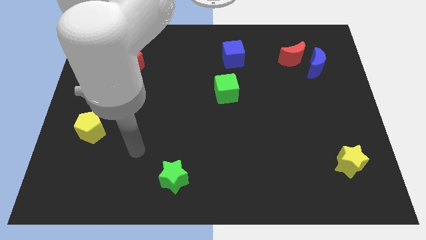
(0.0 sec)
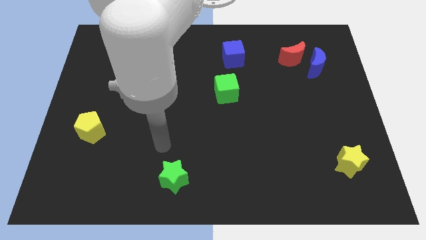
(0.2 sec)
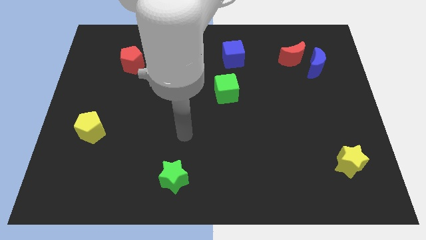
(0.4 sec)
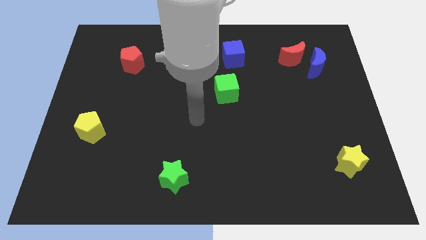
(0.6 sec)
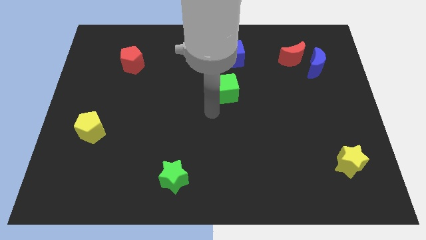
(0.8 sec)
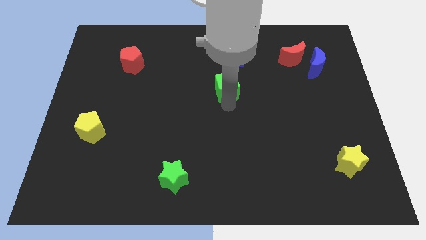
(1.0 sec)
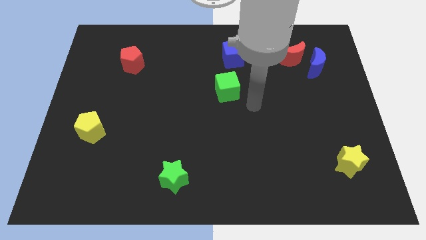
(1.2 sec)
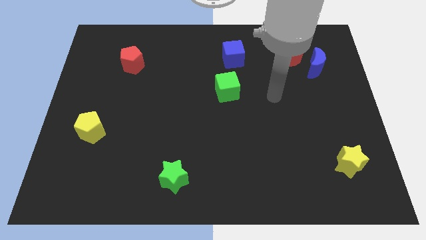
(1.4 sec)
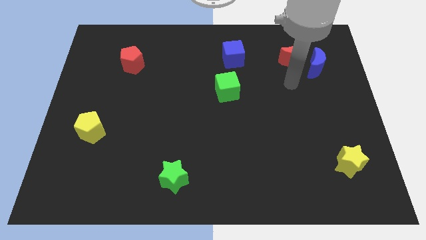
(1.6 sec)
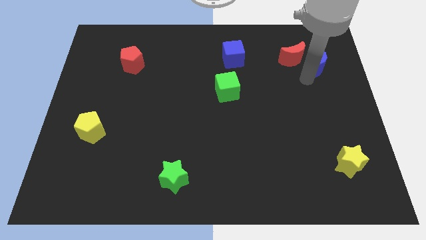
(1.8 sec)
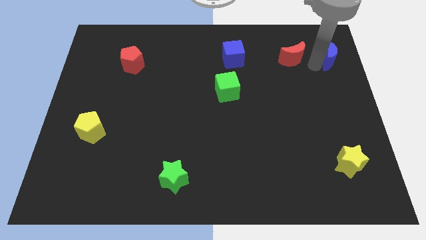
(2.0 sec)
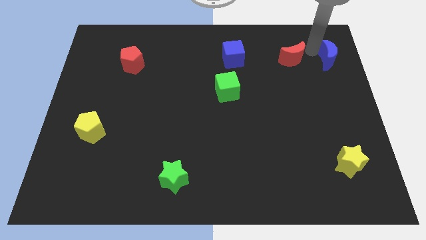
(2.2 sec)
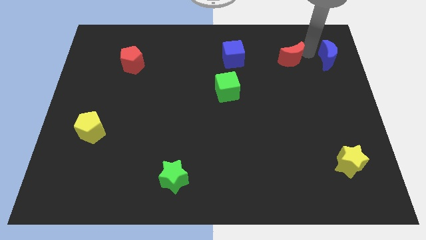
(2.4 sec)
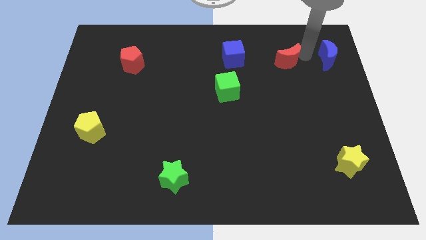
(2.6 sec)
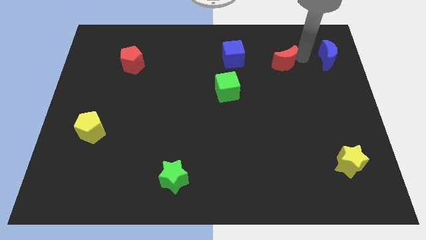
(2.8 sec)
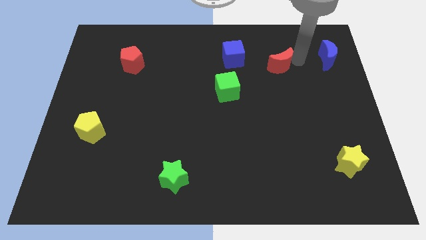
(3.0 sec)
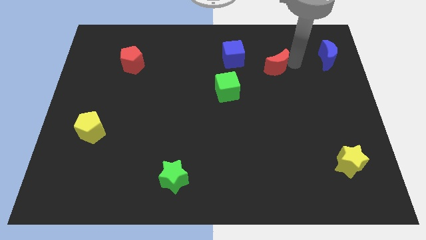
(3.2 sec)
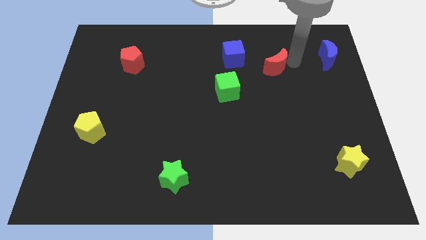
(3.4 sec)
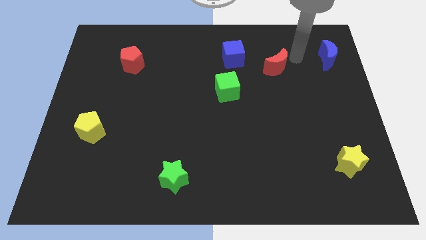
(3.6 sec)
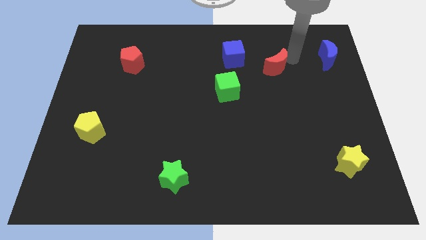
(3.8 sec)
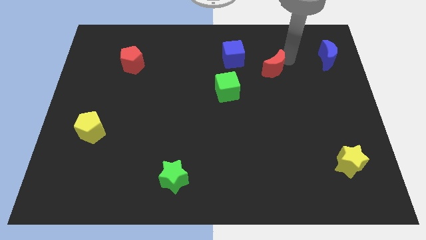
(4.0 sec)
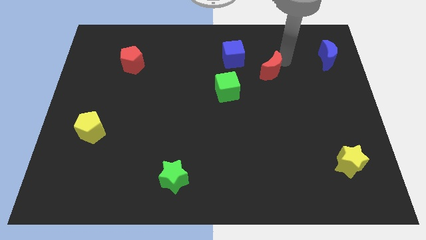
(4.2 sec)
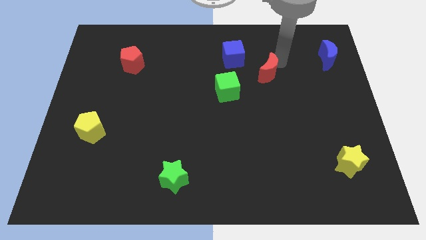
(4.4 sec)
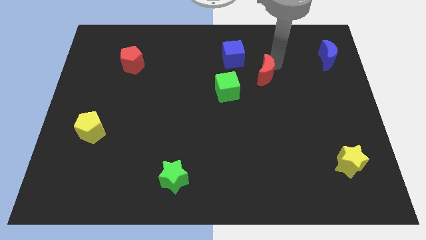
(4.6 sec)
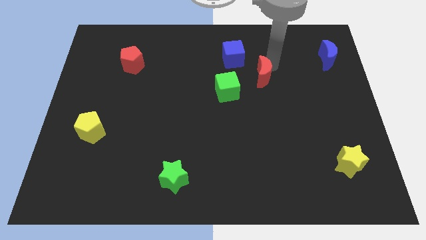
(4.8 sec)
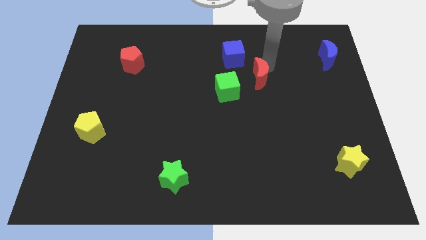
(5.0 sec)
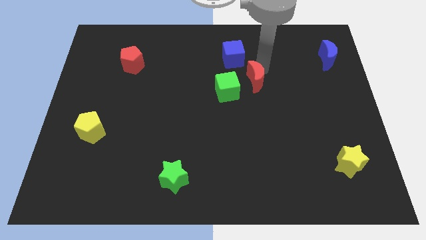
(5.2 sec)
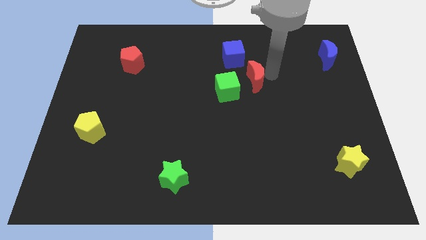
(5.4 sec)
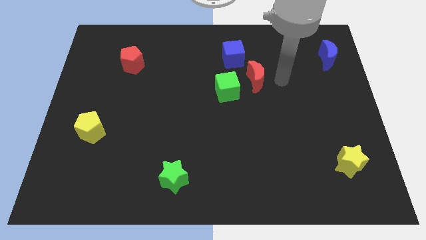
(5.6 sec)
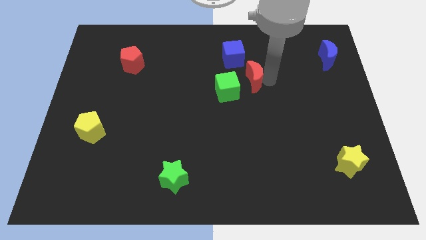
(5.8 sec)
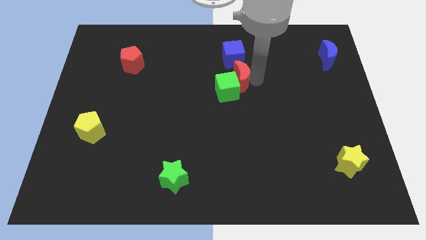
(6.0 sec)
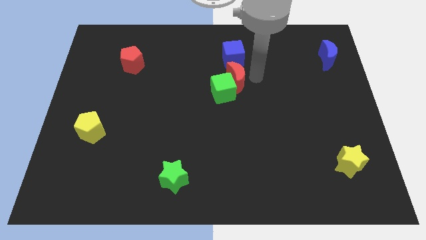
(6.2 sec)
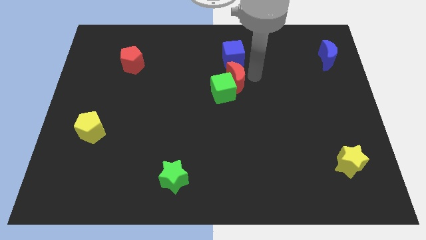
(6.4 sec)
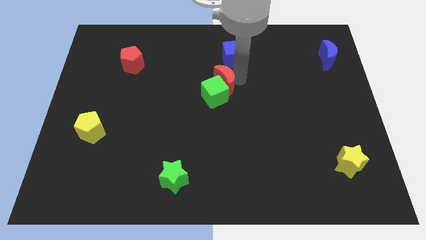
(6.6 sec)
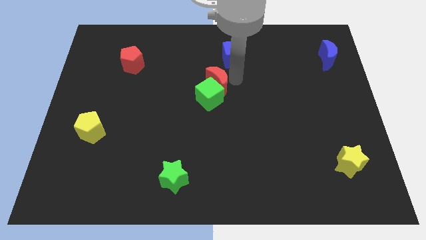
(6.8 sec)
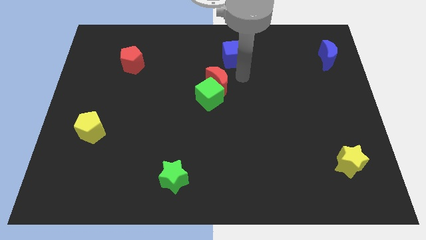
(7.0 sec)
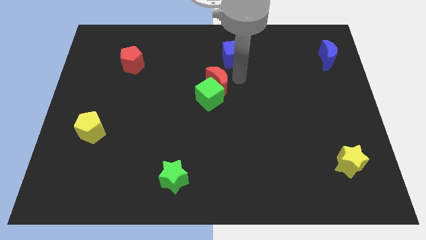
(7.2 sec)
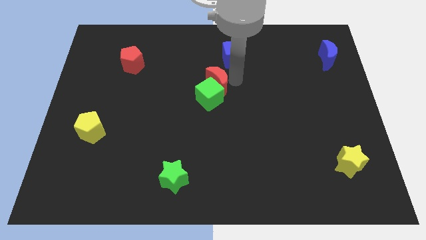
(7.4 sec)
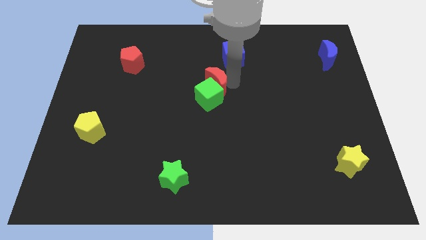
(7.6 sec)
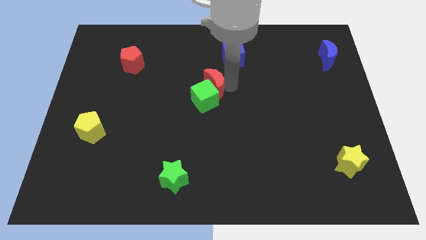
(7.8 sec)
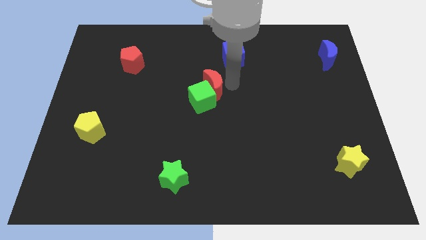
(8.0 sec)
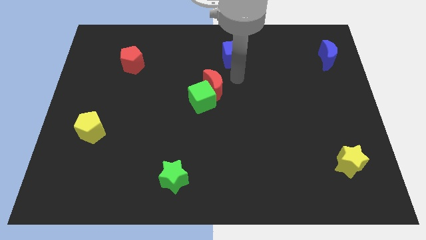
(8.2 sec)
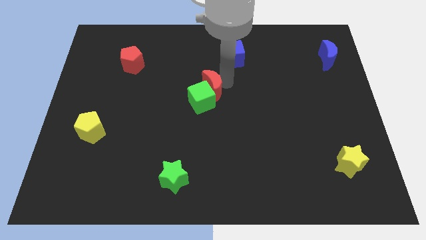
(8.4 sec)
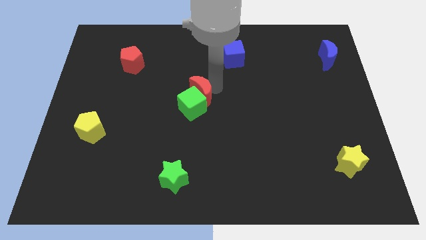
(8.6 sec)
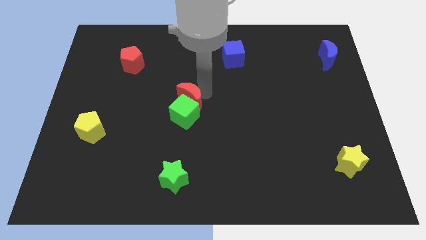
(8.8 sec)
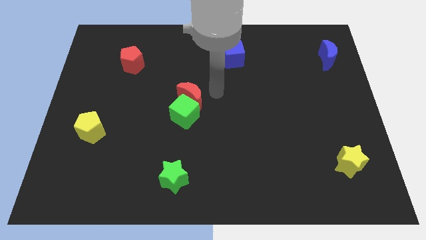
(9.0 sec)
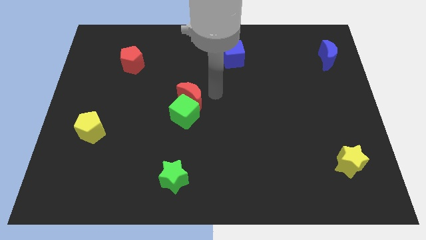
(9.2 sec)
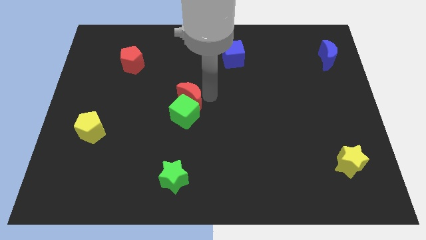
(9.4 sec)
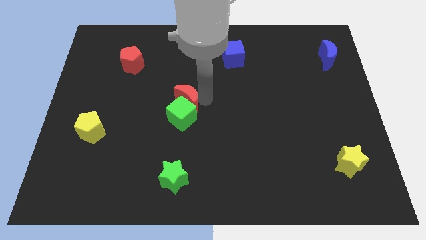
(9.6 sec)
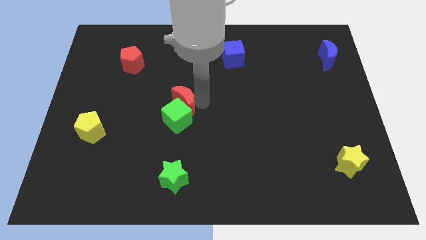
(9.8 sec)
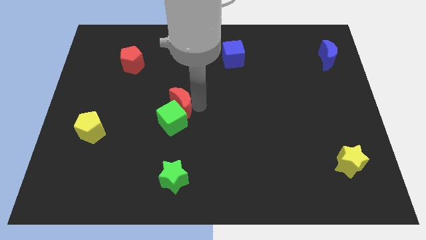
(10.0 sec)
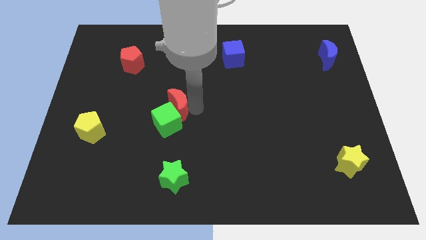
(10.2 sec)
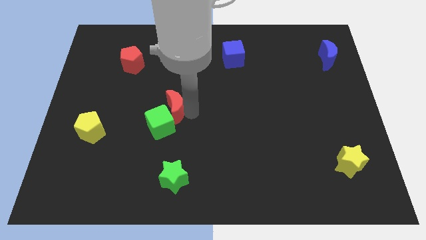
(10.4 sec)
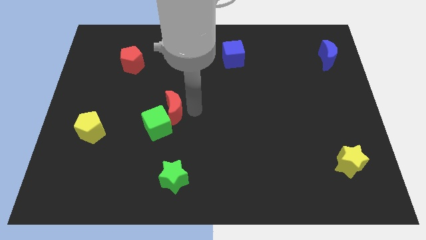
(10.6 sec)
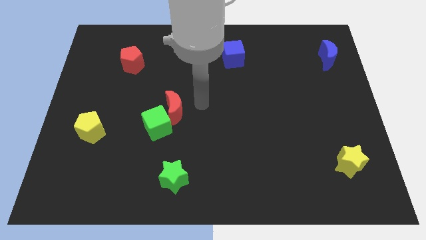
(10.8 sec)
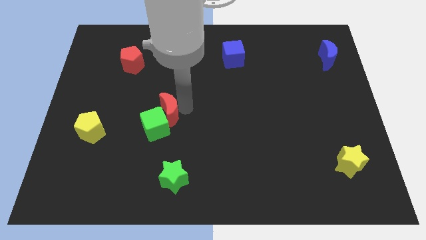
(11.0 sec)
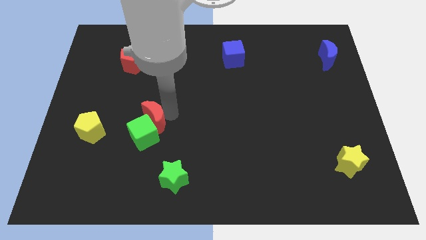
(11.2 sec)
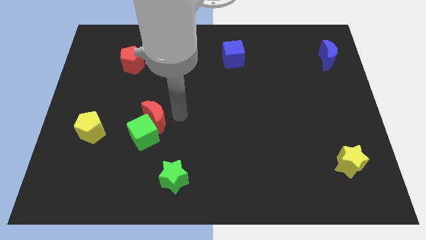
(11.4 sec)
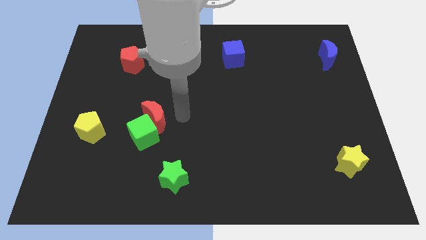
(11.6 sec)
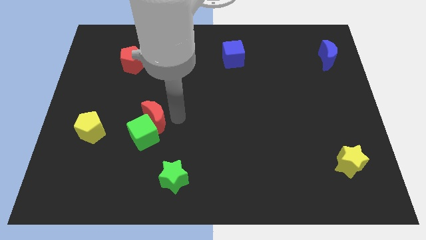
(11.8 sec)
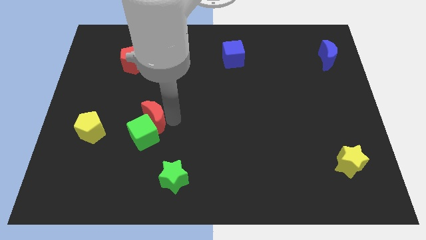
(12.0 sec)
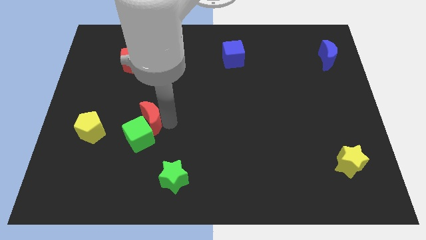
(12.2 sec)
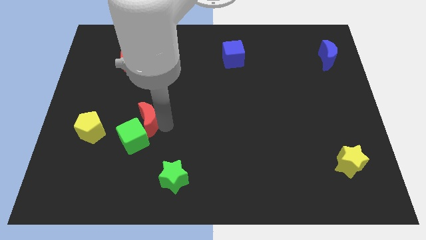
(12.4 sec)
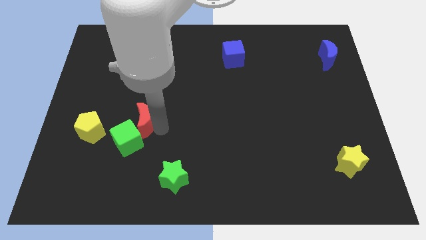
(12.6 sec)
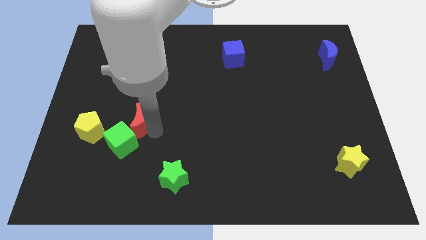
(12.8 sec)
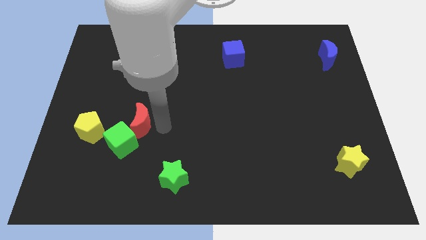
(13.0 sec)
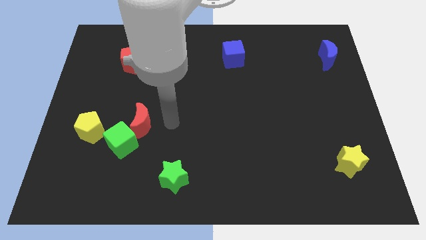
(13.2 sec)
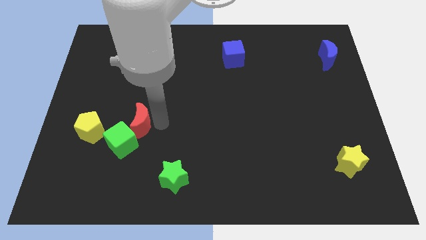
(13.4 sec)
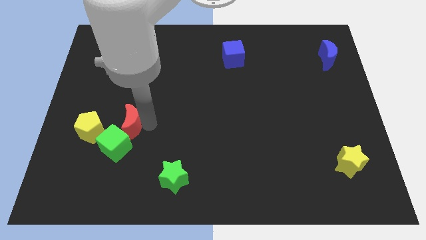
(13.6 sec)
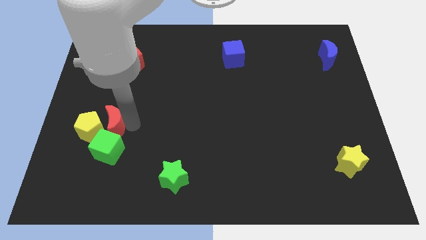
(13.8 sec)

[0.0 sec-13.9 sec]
slide the red moon next to the yellow pentagon
